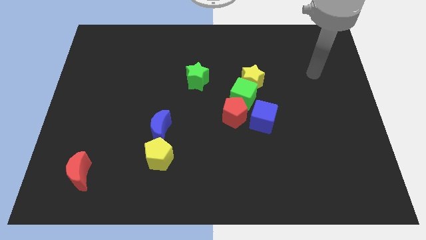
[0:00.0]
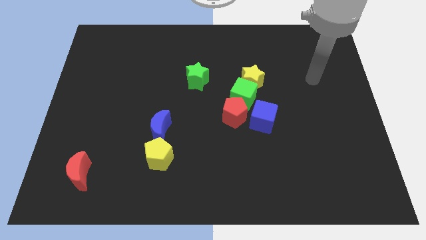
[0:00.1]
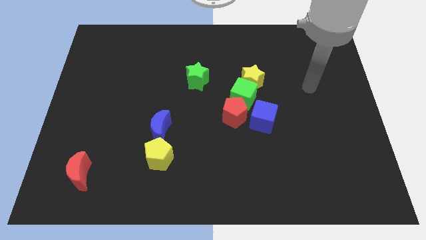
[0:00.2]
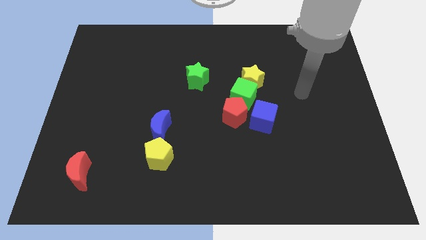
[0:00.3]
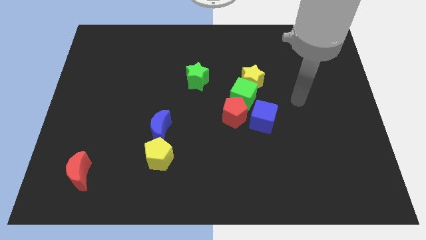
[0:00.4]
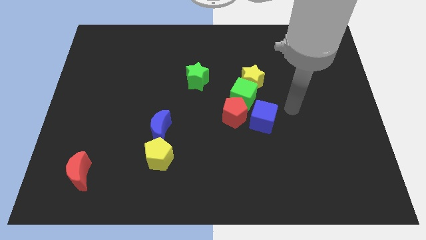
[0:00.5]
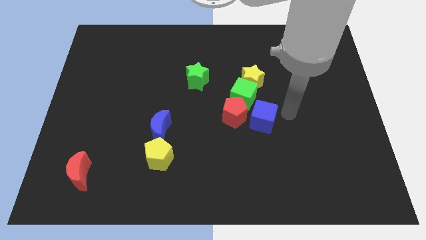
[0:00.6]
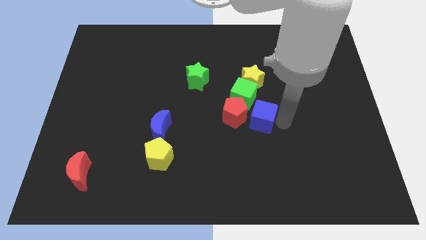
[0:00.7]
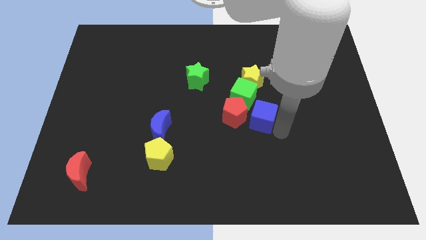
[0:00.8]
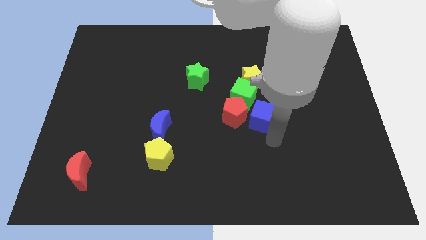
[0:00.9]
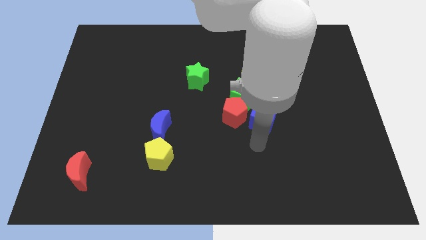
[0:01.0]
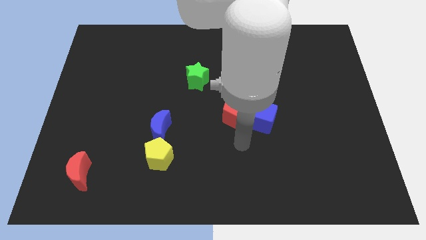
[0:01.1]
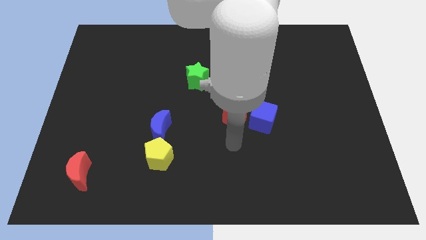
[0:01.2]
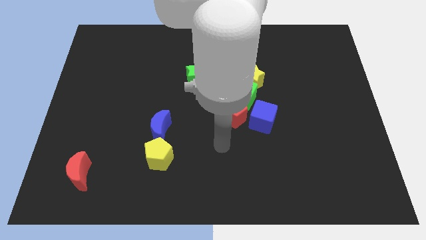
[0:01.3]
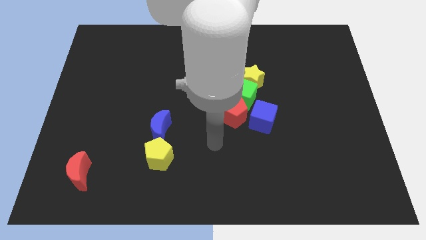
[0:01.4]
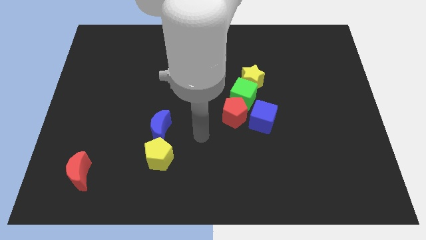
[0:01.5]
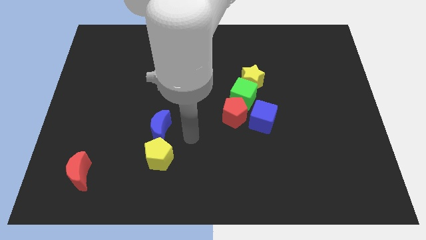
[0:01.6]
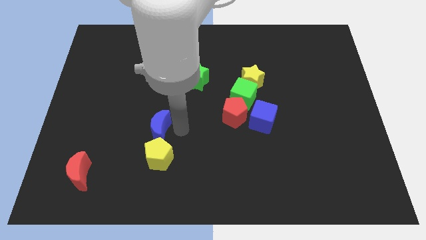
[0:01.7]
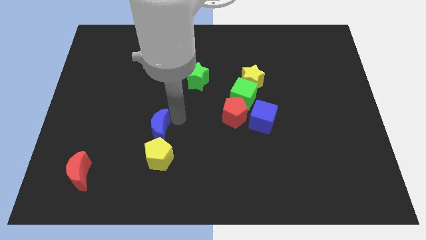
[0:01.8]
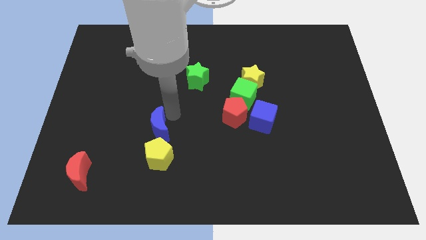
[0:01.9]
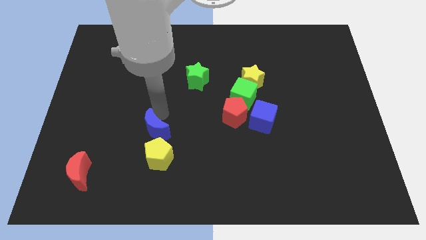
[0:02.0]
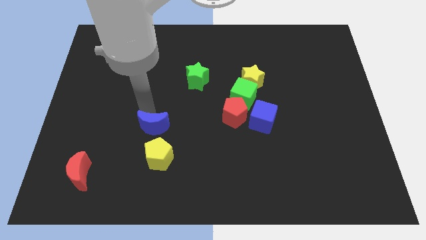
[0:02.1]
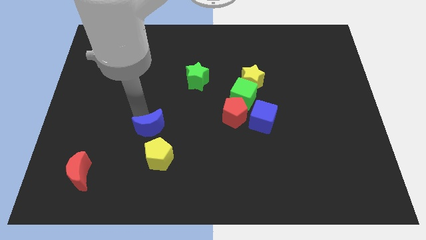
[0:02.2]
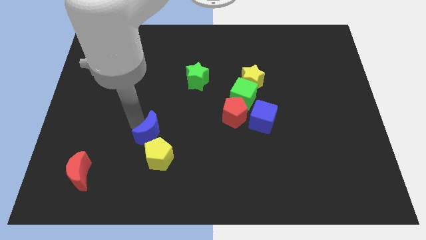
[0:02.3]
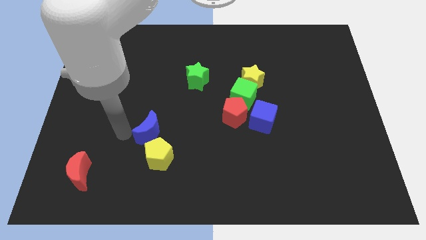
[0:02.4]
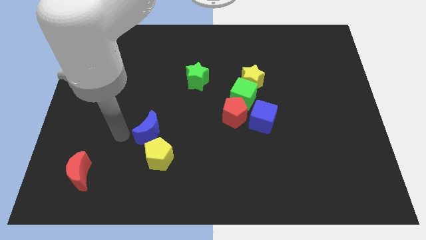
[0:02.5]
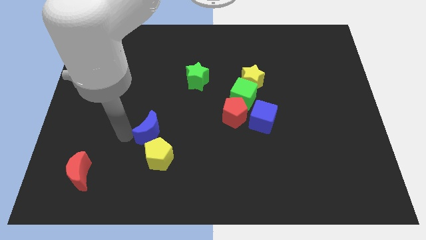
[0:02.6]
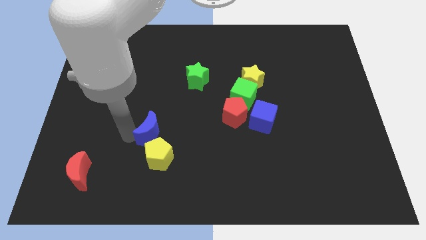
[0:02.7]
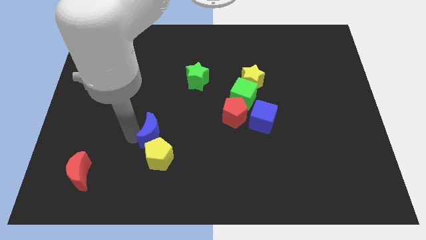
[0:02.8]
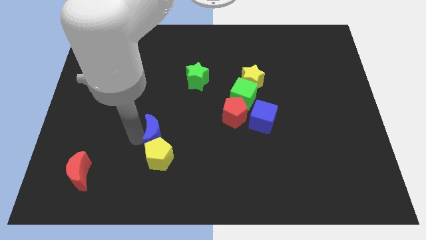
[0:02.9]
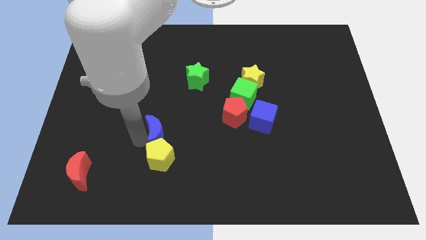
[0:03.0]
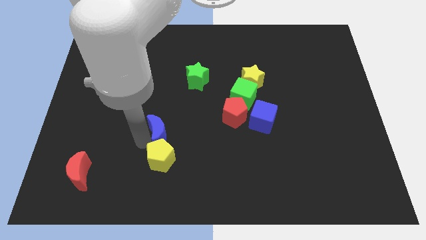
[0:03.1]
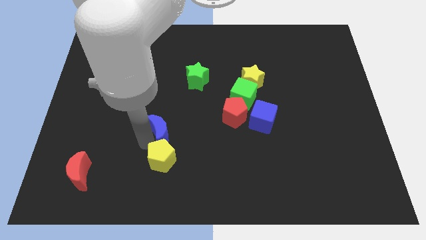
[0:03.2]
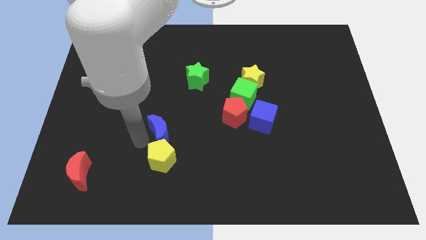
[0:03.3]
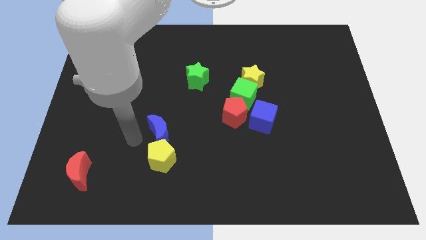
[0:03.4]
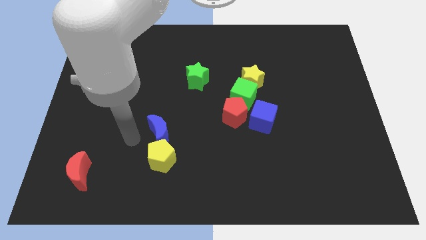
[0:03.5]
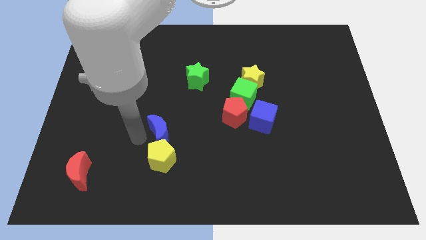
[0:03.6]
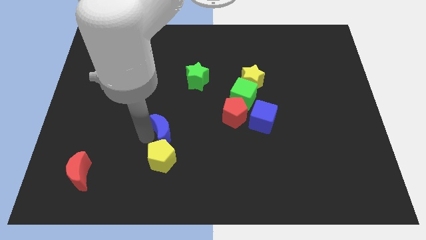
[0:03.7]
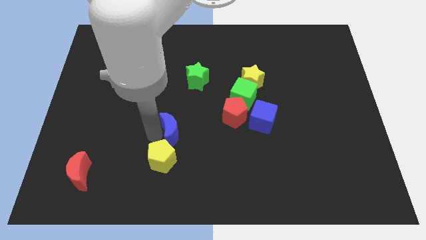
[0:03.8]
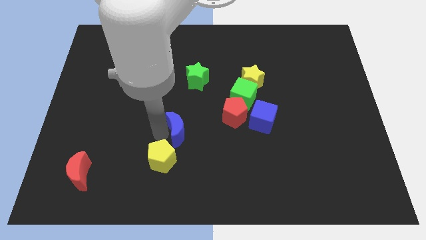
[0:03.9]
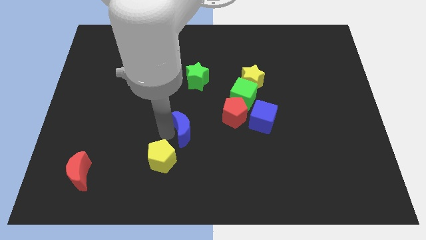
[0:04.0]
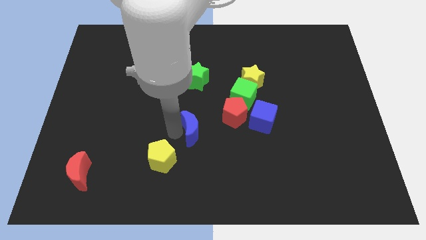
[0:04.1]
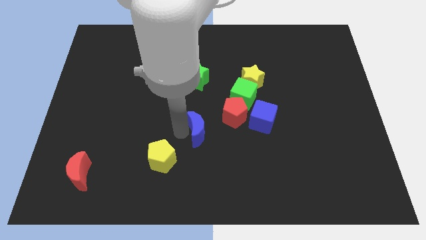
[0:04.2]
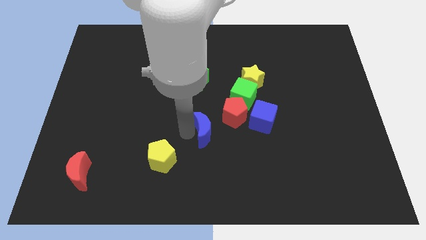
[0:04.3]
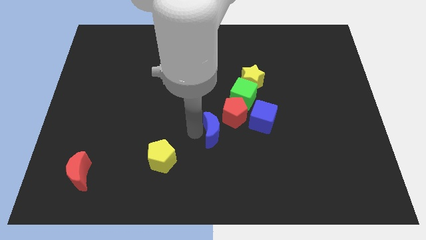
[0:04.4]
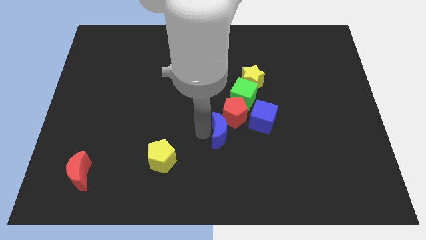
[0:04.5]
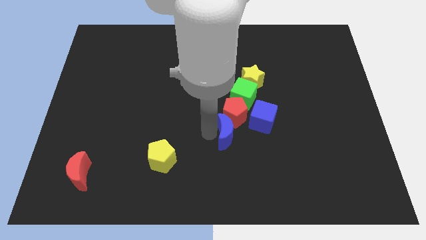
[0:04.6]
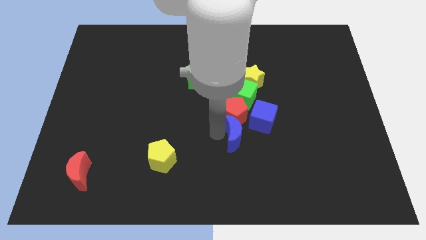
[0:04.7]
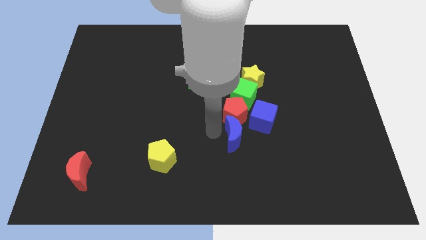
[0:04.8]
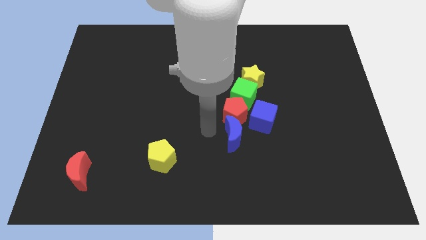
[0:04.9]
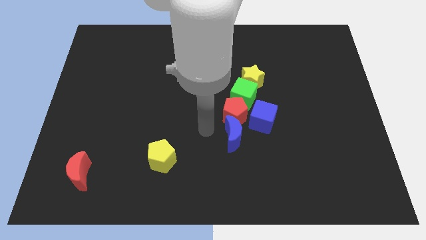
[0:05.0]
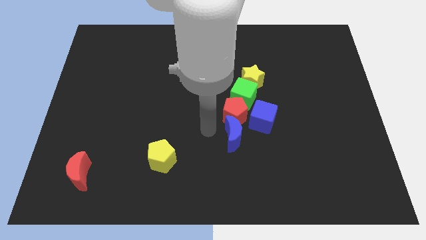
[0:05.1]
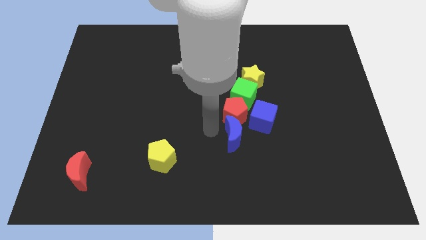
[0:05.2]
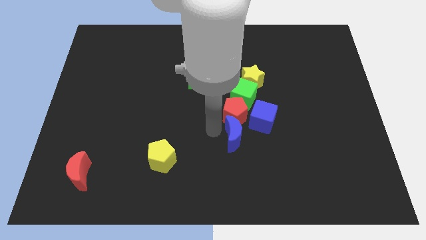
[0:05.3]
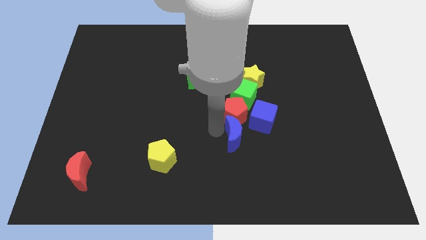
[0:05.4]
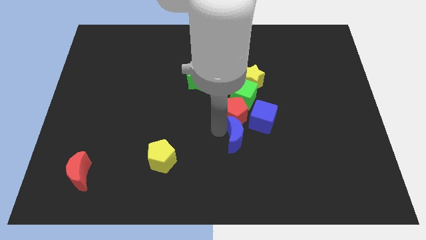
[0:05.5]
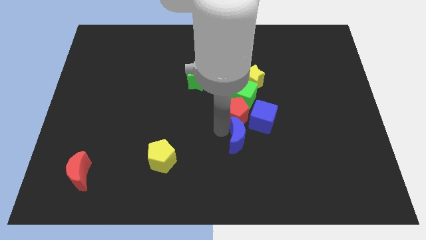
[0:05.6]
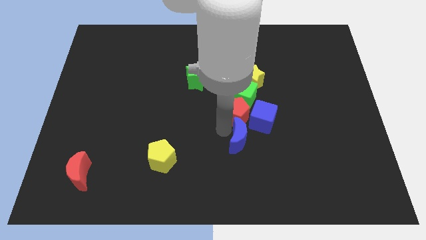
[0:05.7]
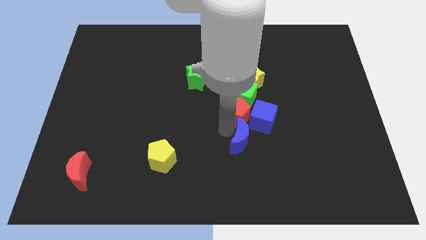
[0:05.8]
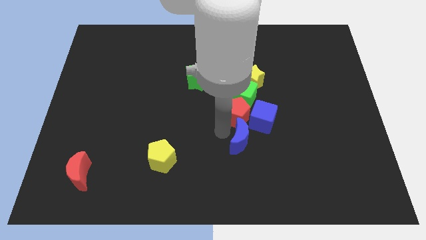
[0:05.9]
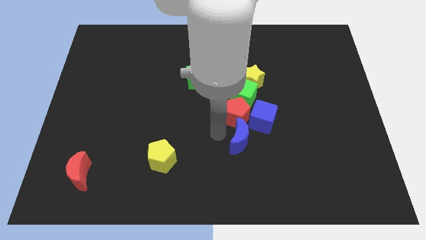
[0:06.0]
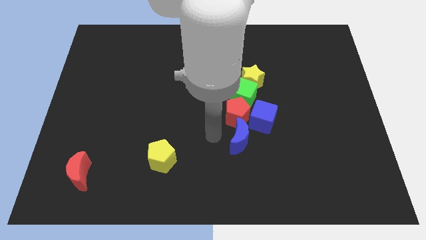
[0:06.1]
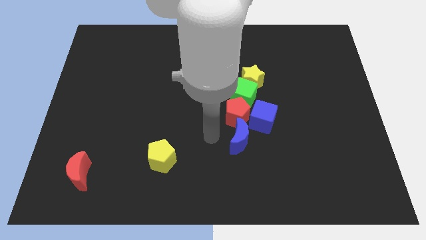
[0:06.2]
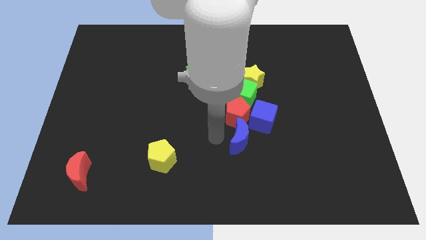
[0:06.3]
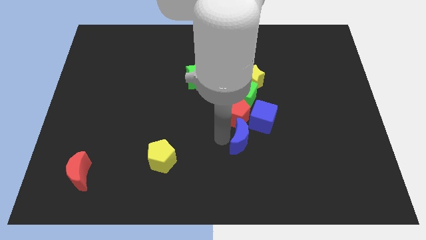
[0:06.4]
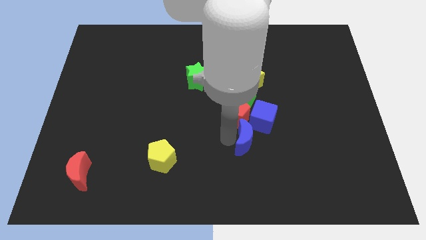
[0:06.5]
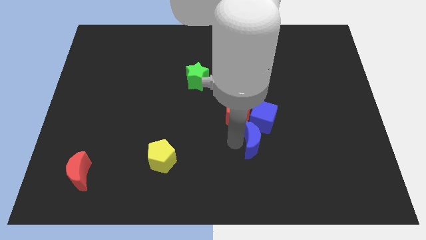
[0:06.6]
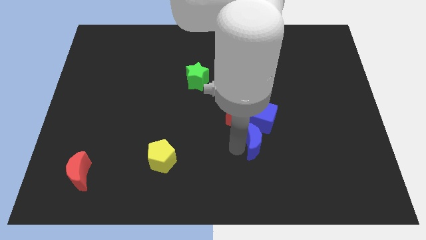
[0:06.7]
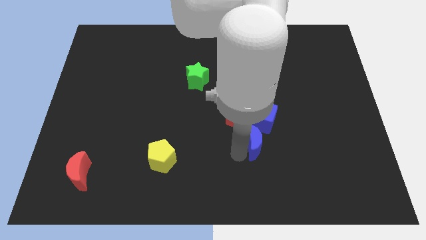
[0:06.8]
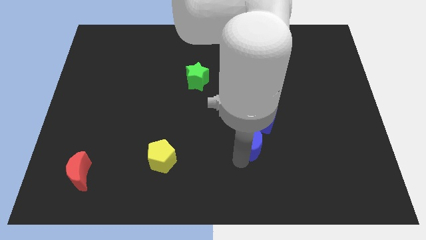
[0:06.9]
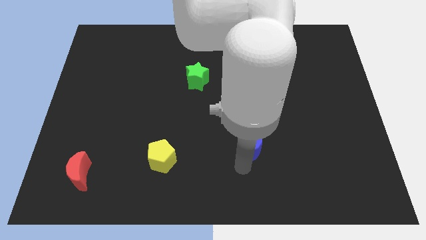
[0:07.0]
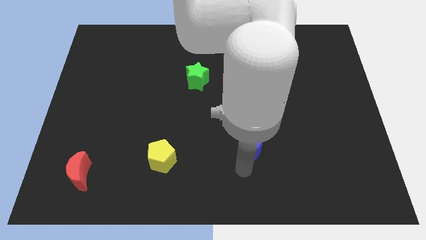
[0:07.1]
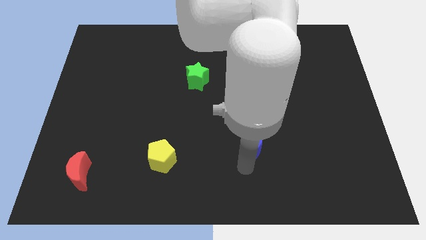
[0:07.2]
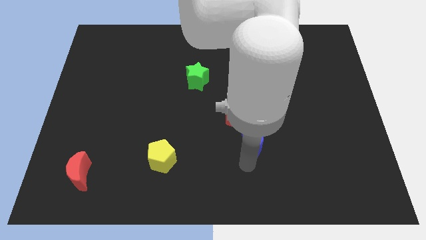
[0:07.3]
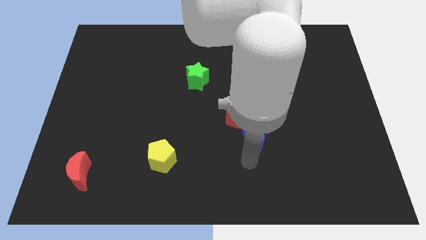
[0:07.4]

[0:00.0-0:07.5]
put the blue moon to the blue cube

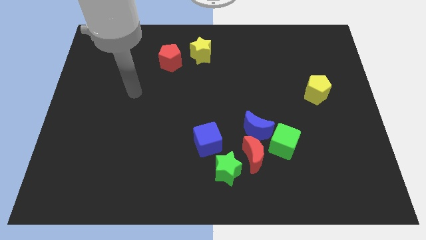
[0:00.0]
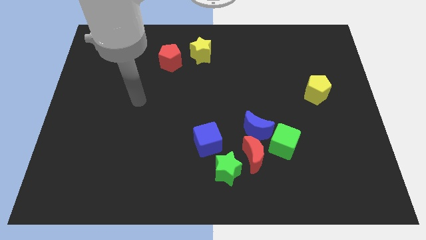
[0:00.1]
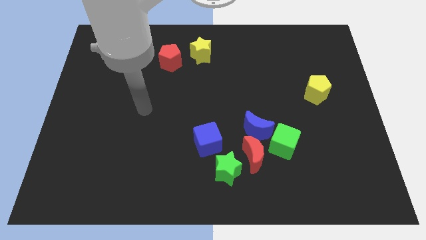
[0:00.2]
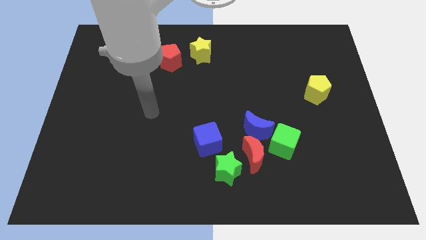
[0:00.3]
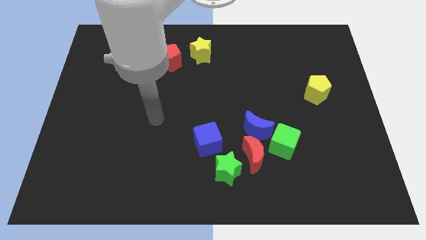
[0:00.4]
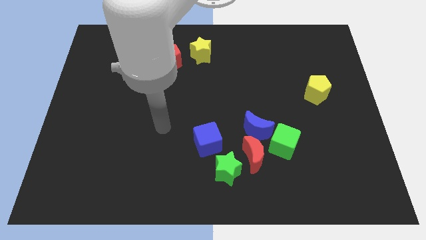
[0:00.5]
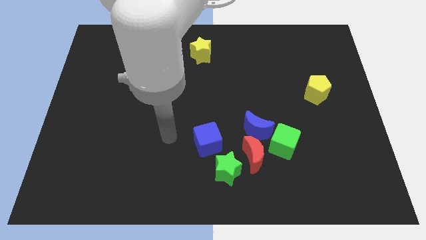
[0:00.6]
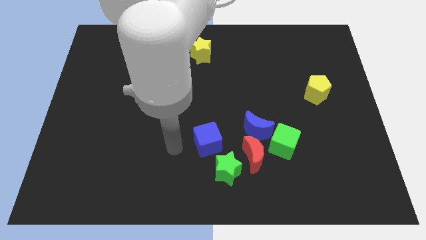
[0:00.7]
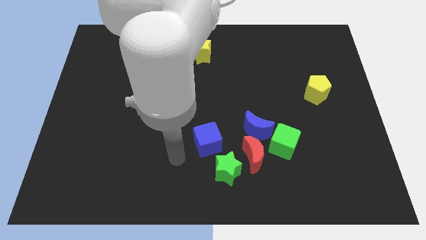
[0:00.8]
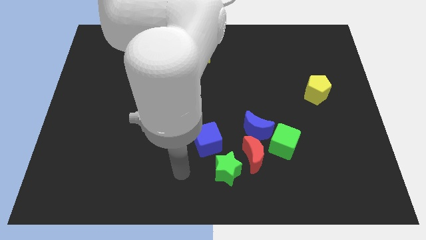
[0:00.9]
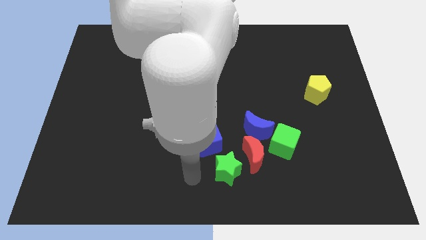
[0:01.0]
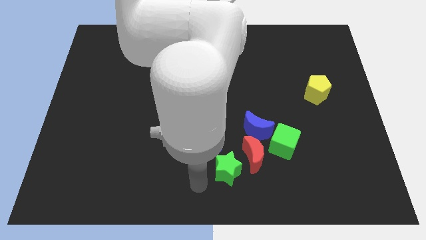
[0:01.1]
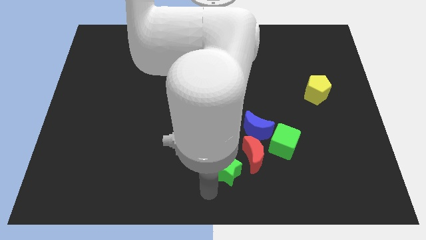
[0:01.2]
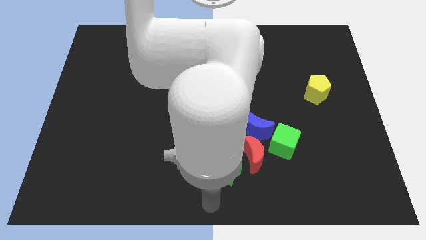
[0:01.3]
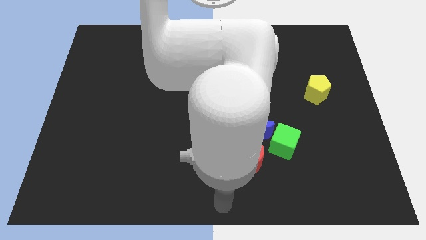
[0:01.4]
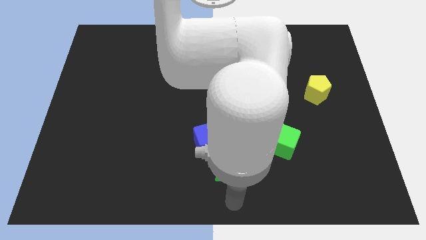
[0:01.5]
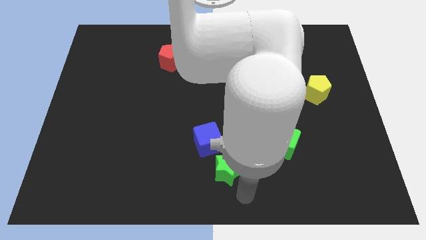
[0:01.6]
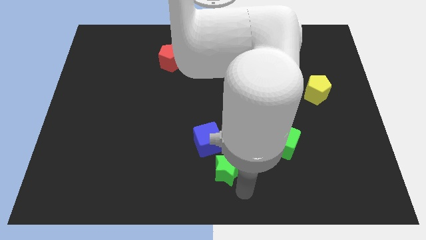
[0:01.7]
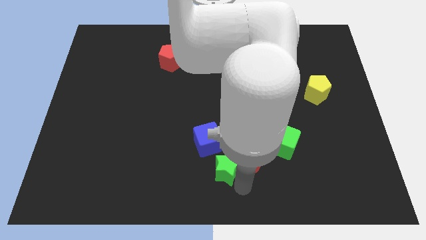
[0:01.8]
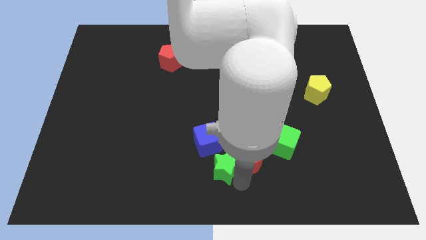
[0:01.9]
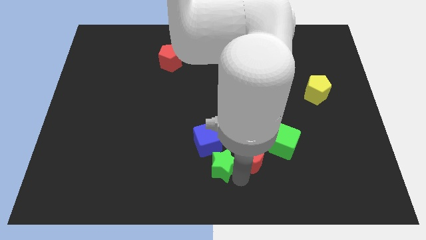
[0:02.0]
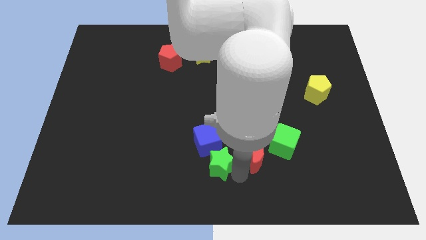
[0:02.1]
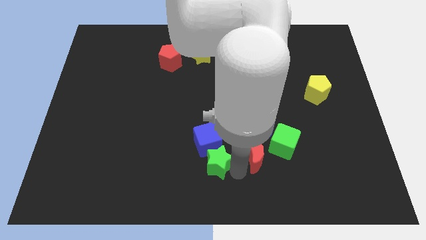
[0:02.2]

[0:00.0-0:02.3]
push the green star close to the blue cube
